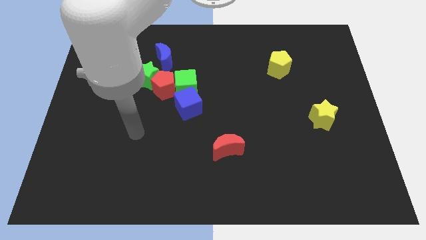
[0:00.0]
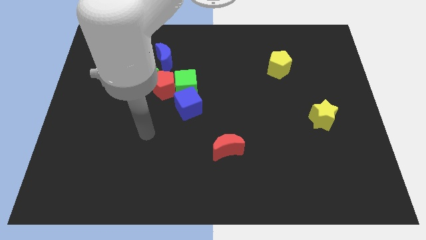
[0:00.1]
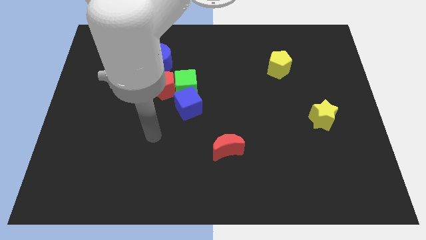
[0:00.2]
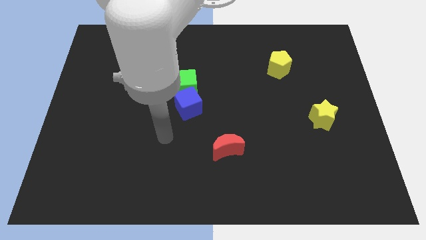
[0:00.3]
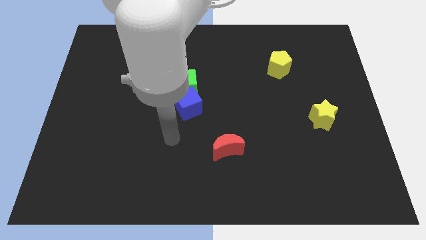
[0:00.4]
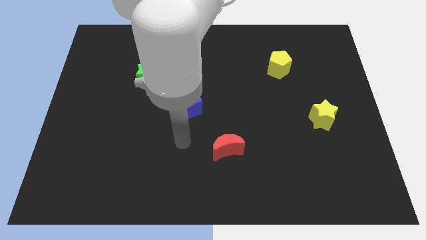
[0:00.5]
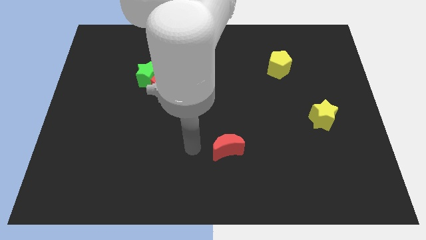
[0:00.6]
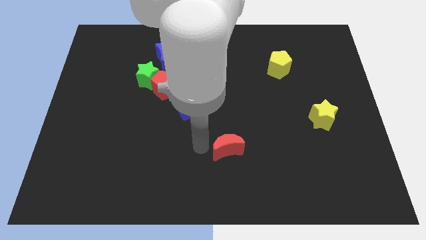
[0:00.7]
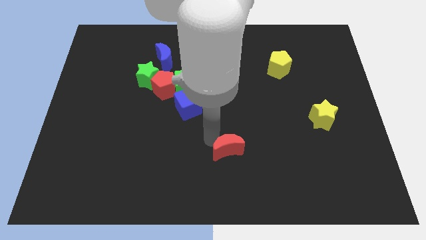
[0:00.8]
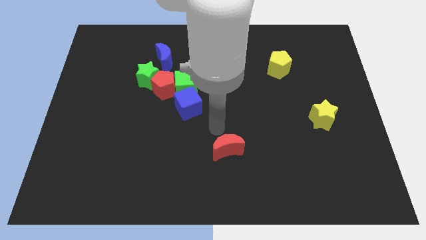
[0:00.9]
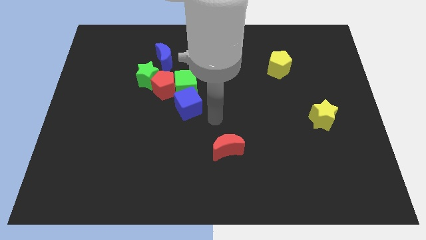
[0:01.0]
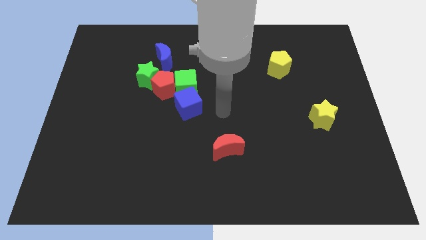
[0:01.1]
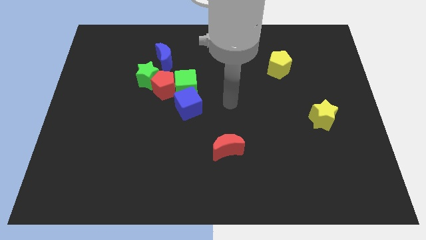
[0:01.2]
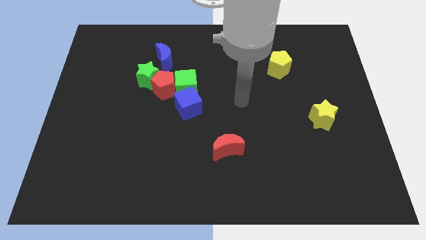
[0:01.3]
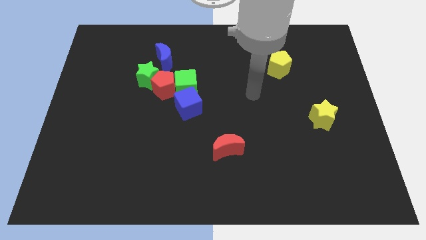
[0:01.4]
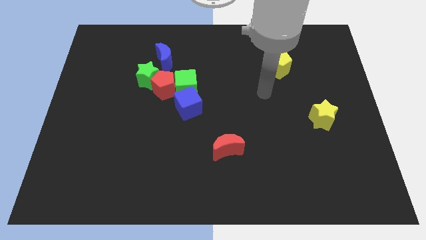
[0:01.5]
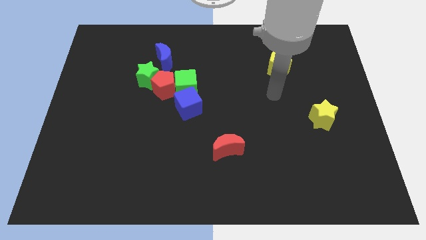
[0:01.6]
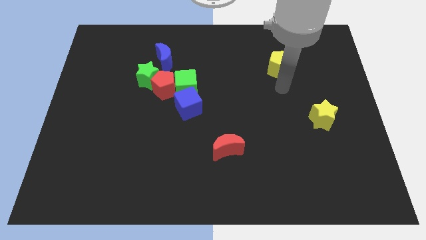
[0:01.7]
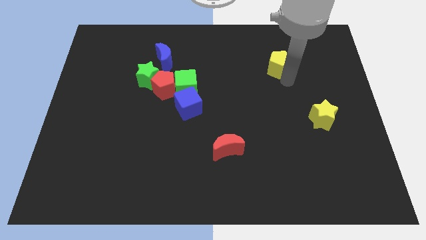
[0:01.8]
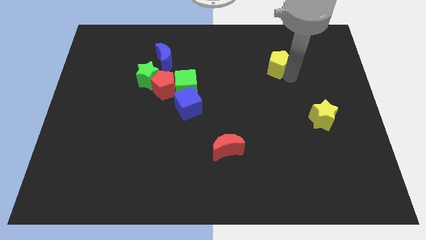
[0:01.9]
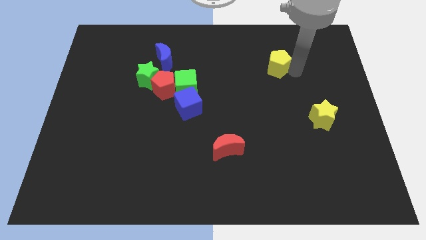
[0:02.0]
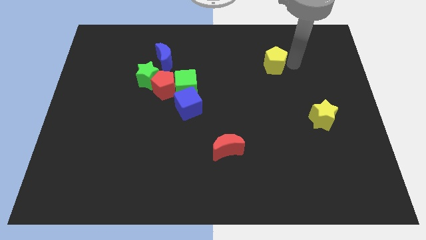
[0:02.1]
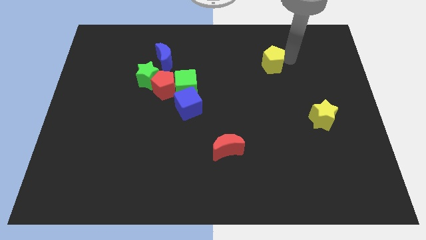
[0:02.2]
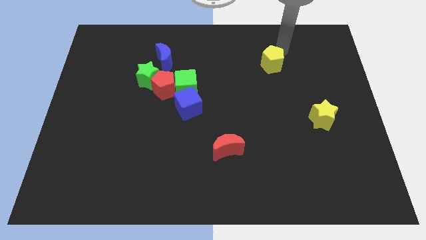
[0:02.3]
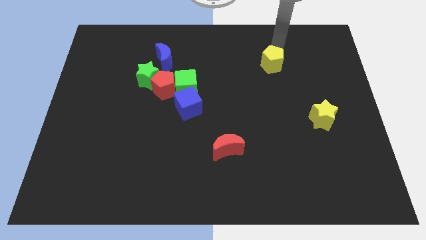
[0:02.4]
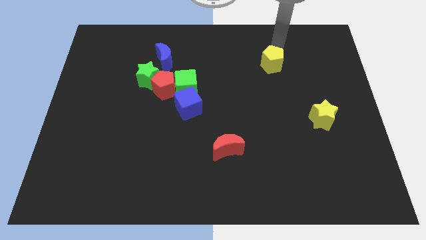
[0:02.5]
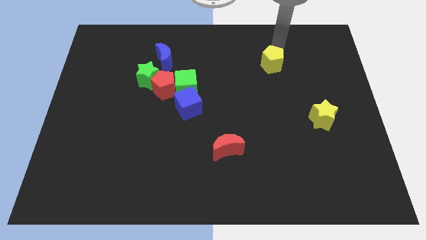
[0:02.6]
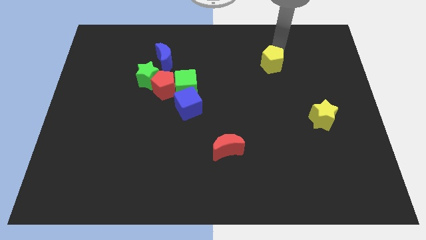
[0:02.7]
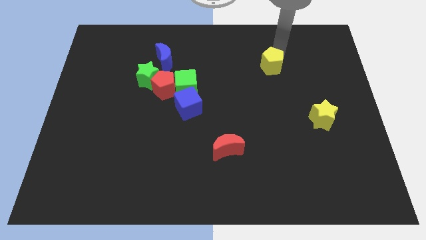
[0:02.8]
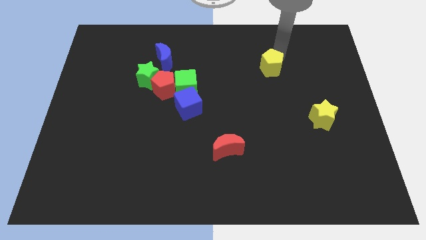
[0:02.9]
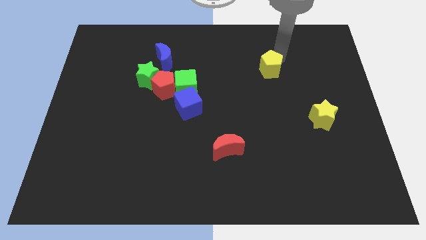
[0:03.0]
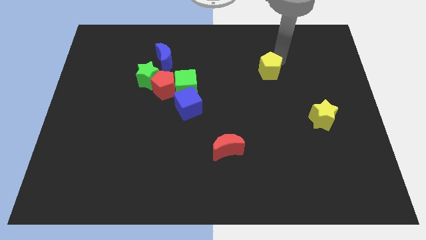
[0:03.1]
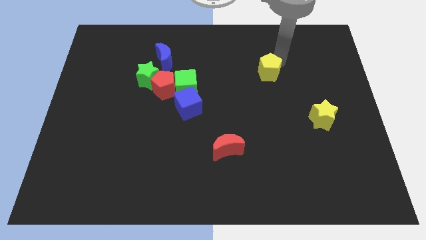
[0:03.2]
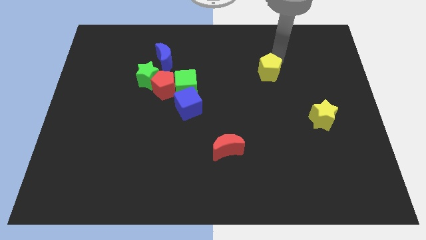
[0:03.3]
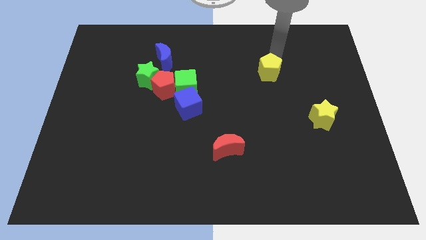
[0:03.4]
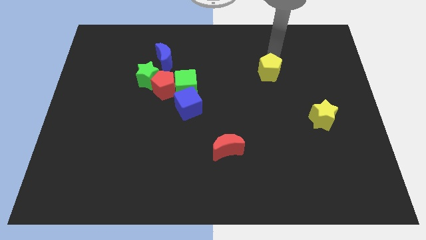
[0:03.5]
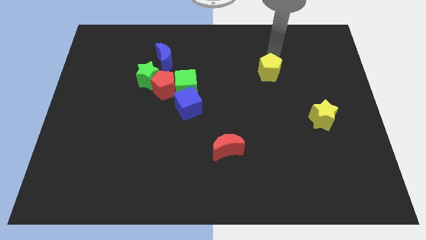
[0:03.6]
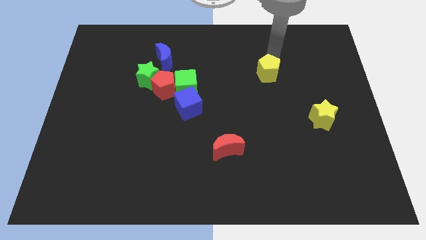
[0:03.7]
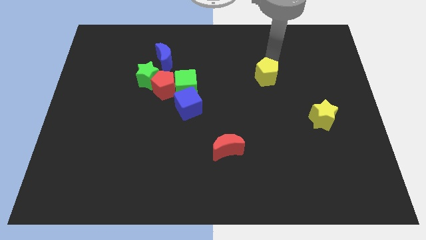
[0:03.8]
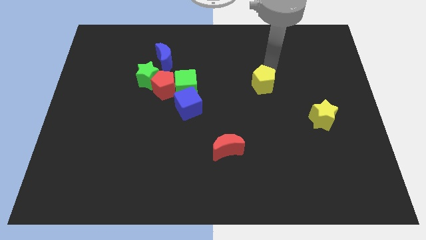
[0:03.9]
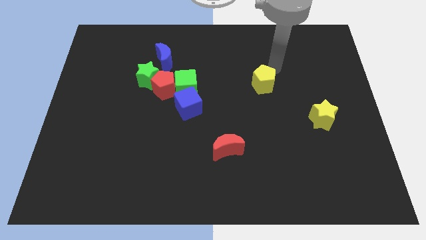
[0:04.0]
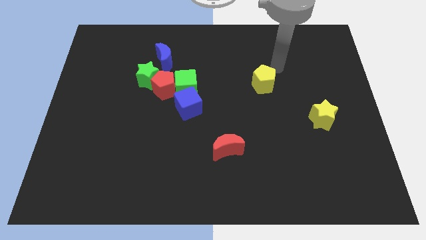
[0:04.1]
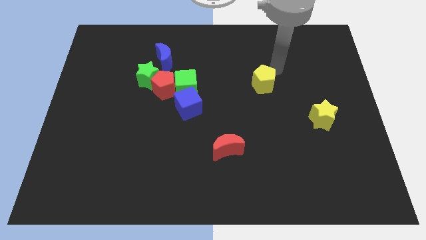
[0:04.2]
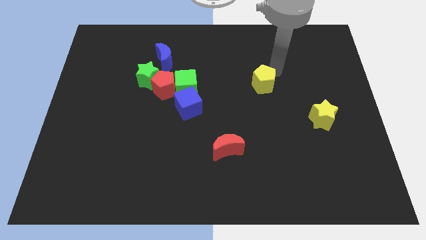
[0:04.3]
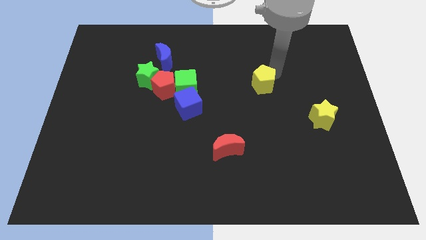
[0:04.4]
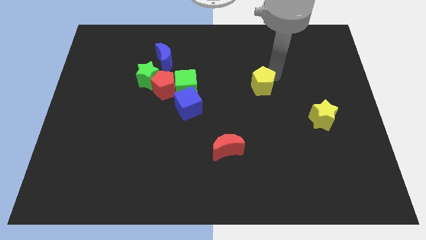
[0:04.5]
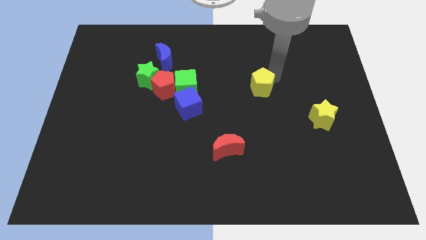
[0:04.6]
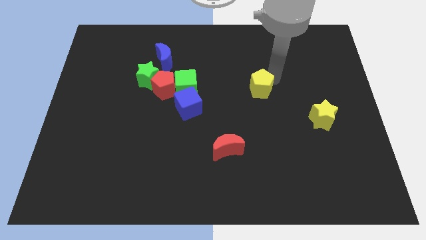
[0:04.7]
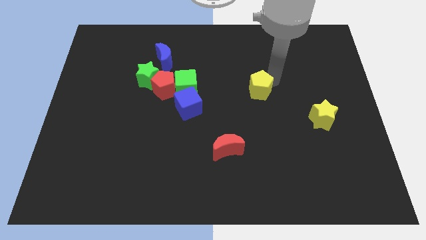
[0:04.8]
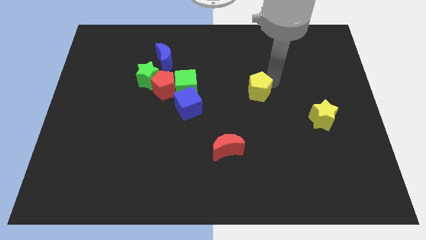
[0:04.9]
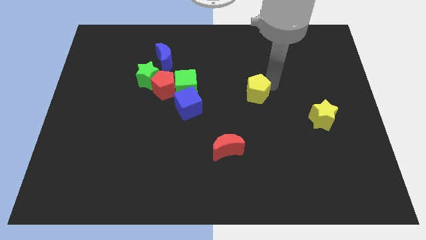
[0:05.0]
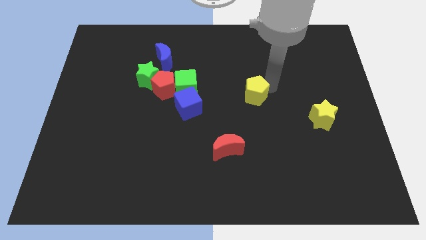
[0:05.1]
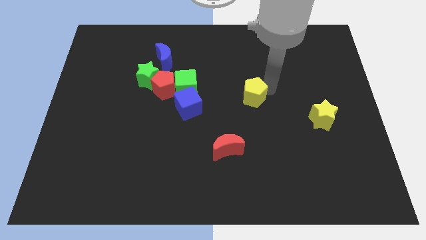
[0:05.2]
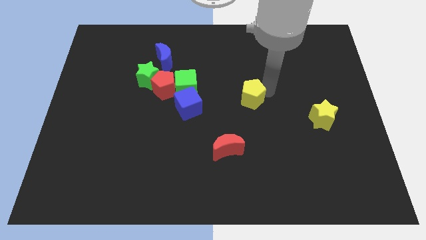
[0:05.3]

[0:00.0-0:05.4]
move the yellow pentagon right of the blue cube

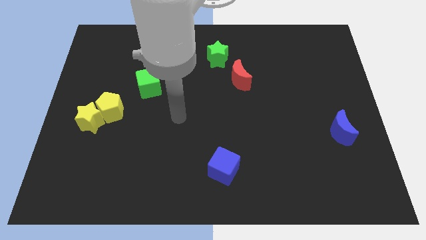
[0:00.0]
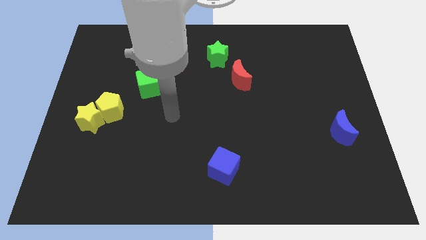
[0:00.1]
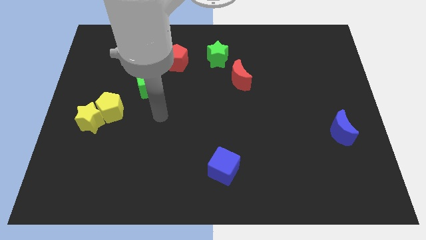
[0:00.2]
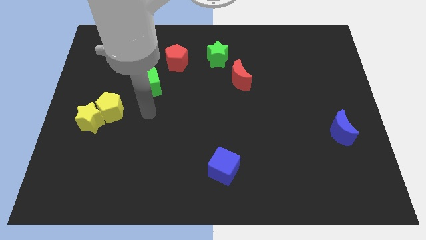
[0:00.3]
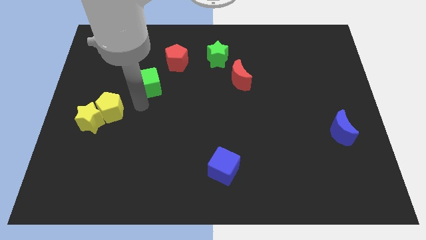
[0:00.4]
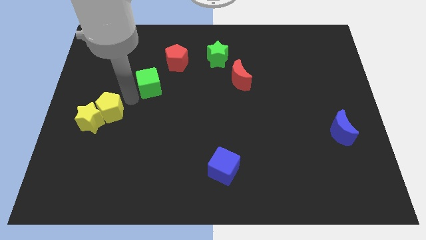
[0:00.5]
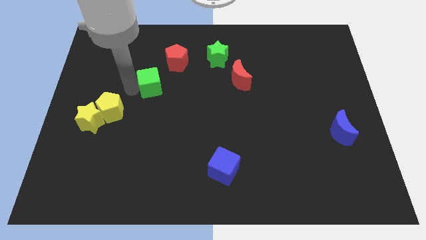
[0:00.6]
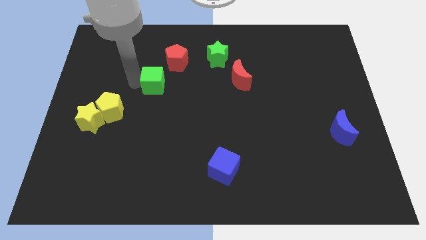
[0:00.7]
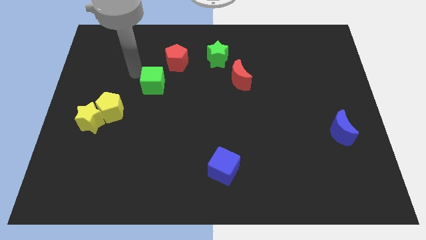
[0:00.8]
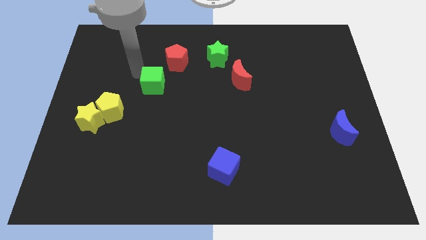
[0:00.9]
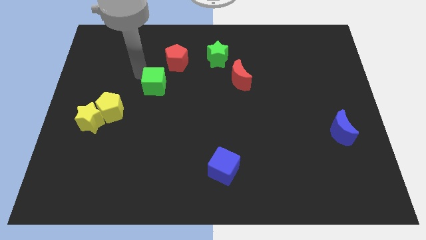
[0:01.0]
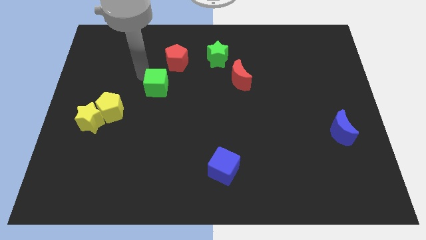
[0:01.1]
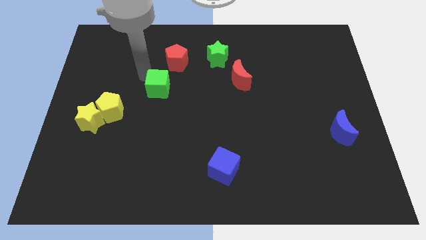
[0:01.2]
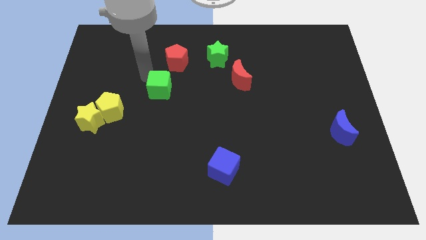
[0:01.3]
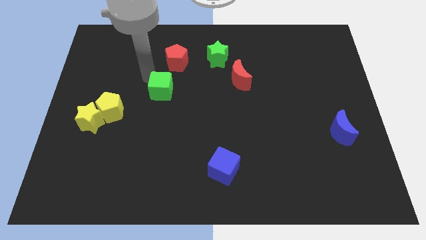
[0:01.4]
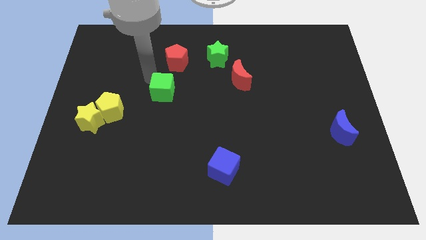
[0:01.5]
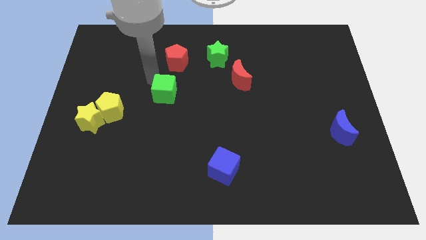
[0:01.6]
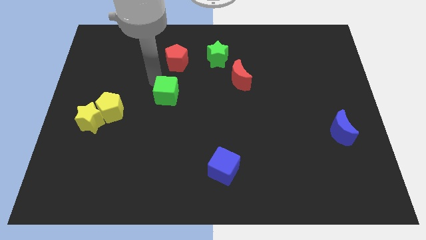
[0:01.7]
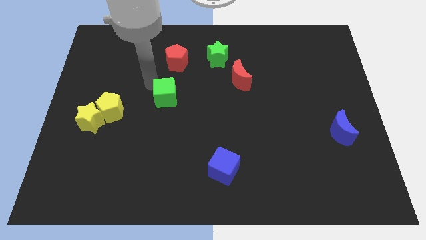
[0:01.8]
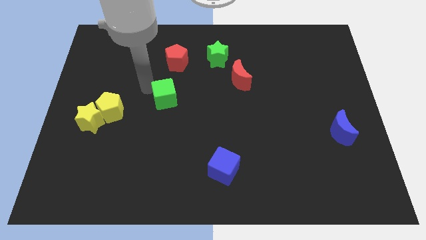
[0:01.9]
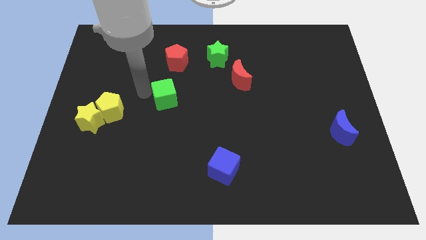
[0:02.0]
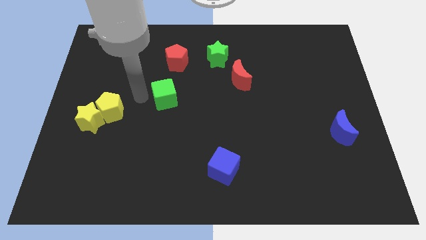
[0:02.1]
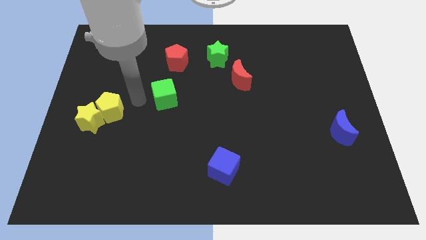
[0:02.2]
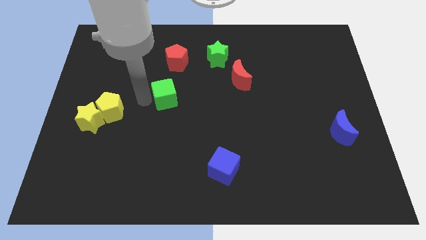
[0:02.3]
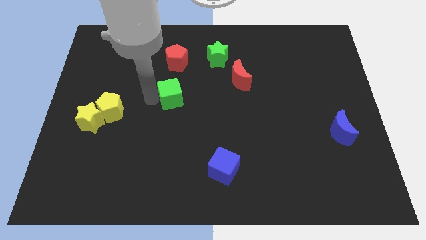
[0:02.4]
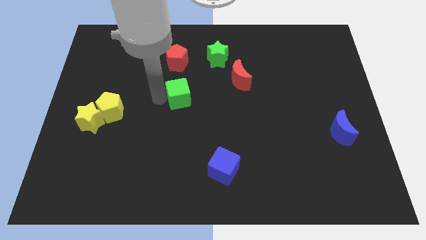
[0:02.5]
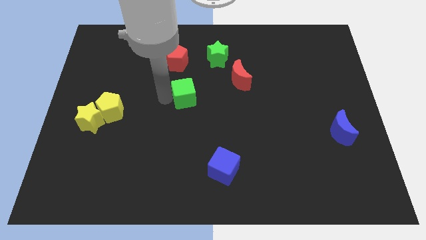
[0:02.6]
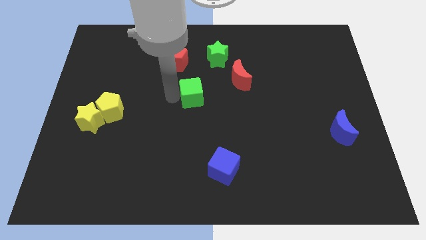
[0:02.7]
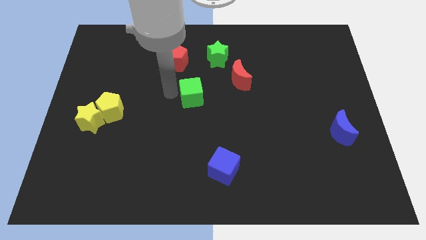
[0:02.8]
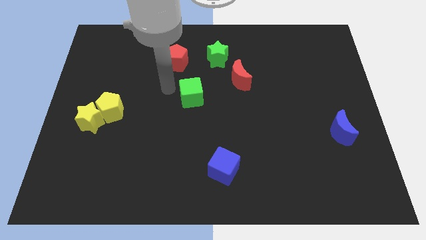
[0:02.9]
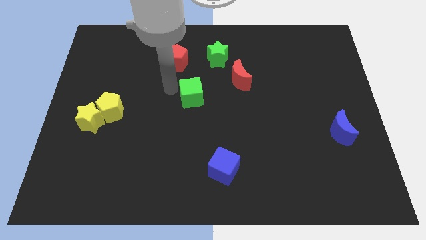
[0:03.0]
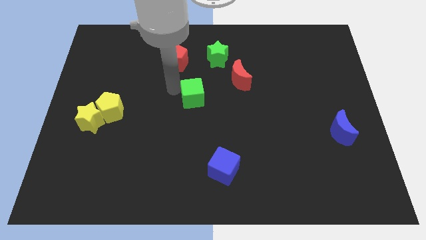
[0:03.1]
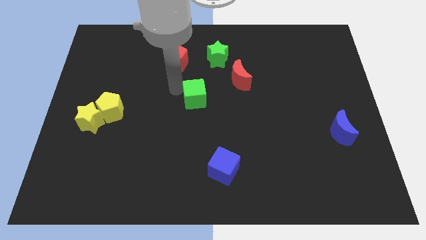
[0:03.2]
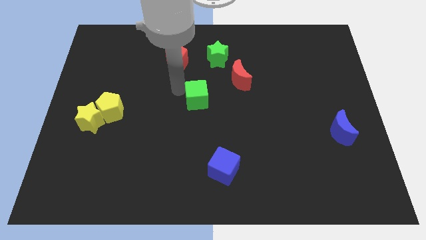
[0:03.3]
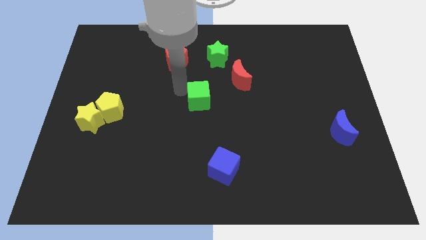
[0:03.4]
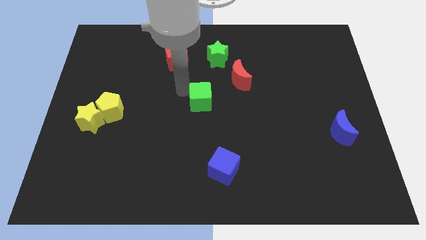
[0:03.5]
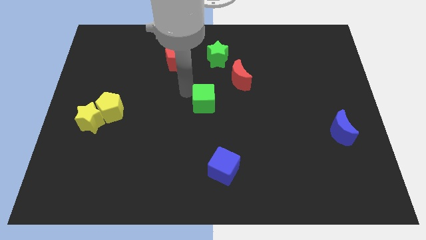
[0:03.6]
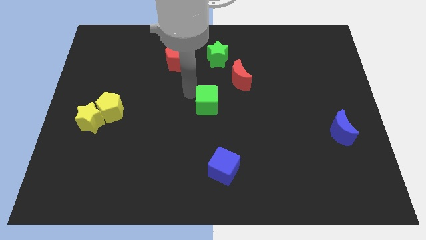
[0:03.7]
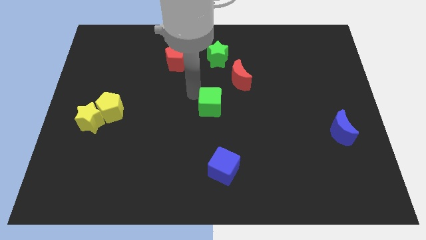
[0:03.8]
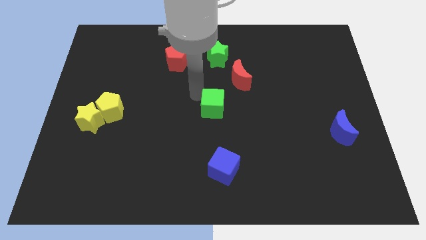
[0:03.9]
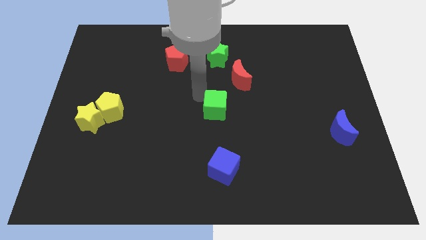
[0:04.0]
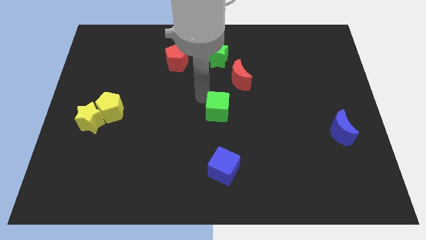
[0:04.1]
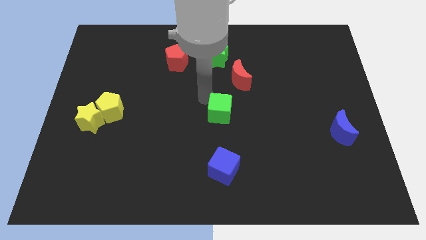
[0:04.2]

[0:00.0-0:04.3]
slide the green cube below the red moon
